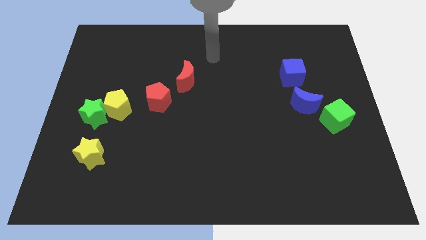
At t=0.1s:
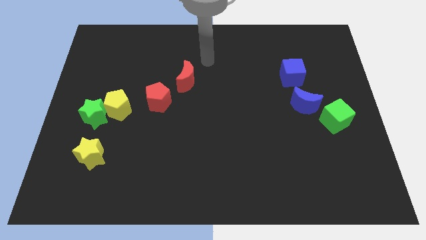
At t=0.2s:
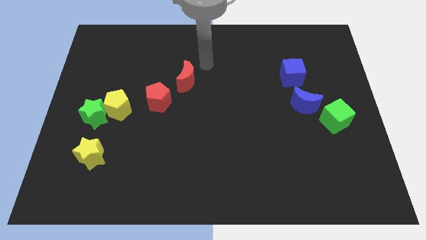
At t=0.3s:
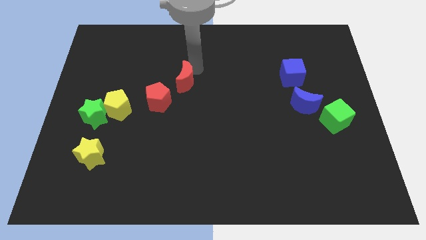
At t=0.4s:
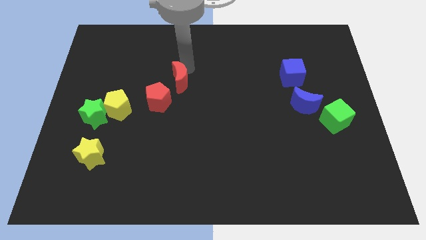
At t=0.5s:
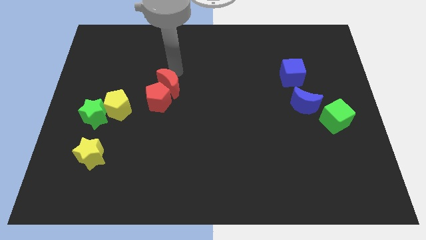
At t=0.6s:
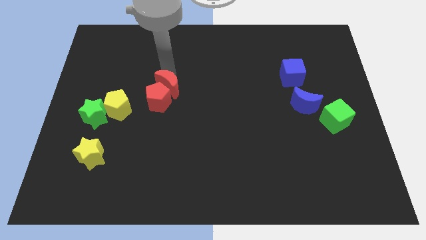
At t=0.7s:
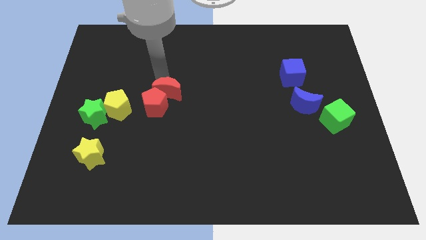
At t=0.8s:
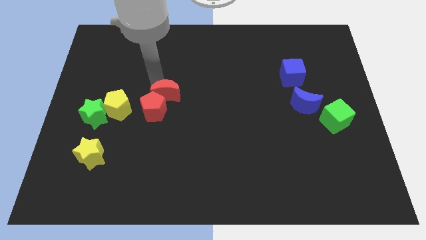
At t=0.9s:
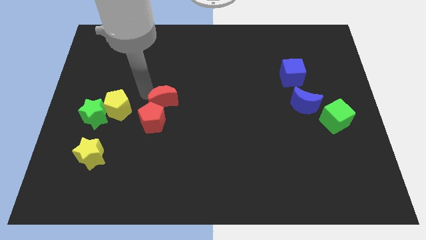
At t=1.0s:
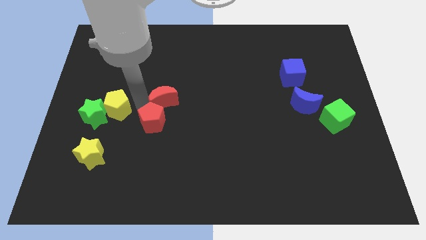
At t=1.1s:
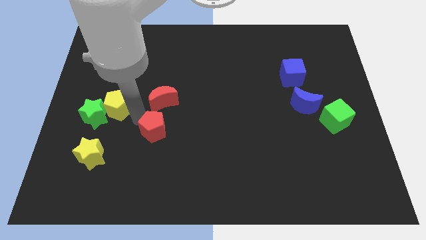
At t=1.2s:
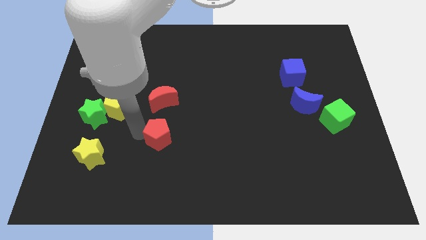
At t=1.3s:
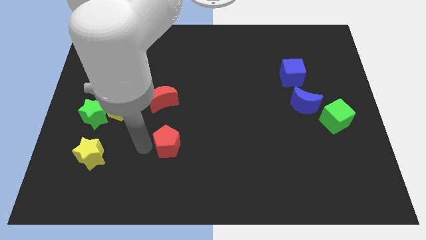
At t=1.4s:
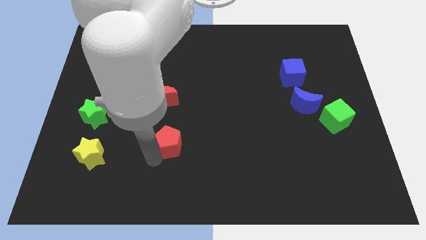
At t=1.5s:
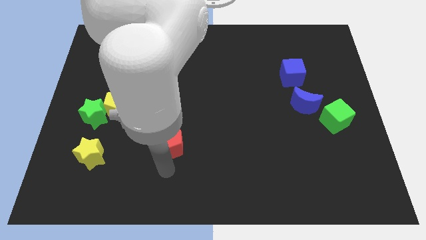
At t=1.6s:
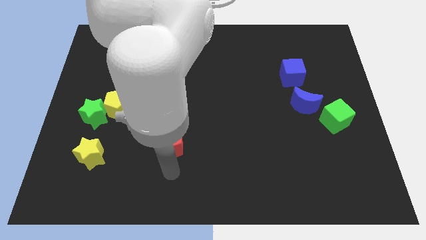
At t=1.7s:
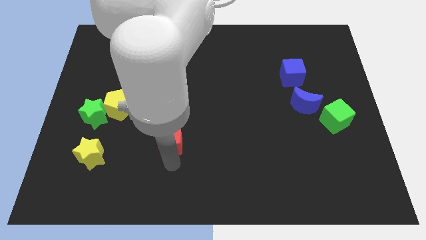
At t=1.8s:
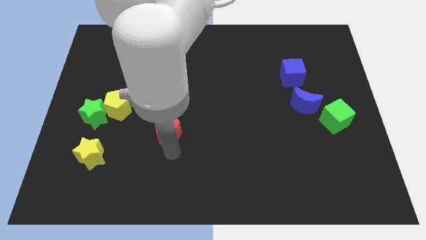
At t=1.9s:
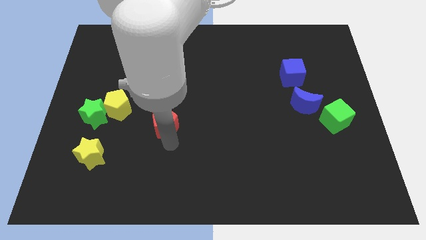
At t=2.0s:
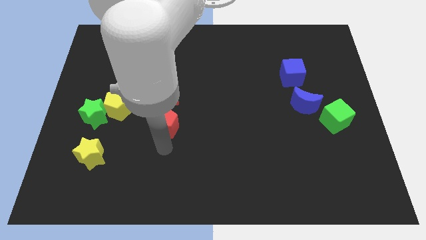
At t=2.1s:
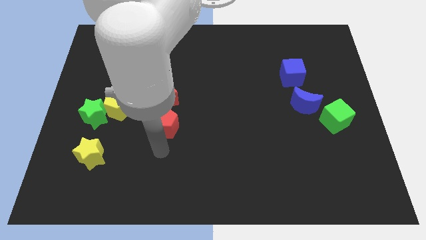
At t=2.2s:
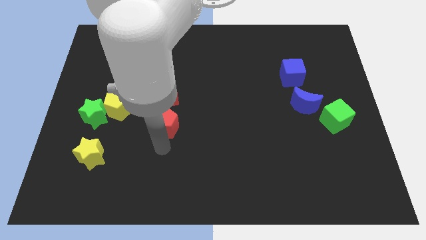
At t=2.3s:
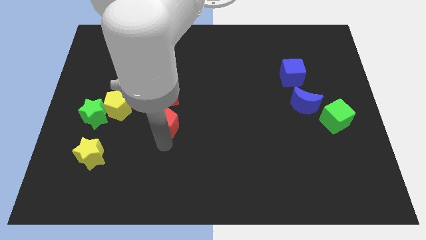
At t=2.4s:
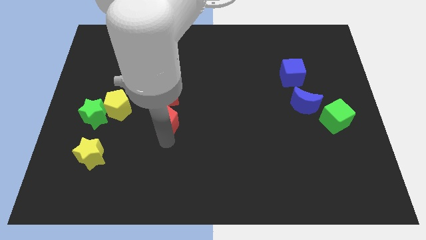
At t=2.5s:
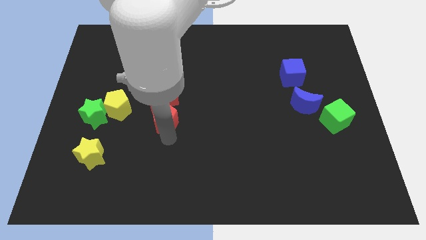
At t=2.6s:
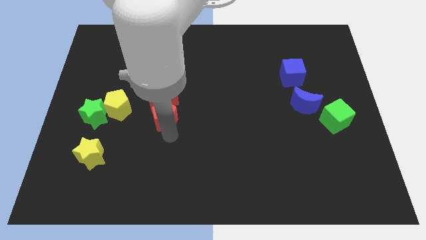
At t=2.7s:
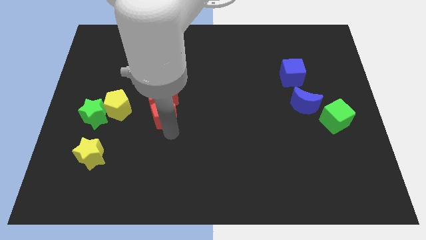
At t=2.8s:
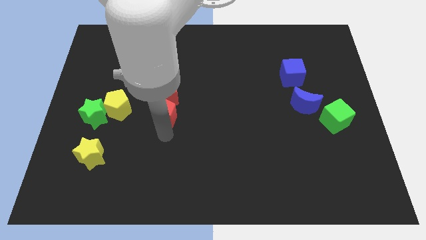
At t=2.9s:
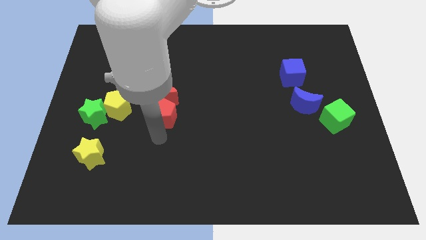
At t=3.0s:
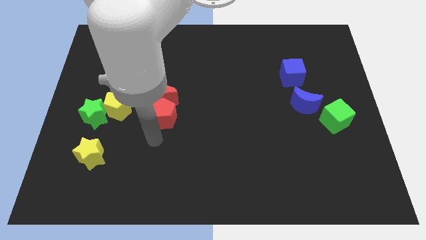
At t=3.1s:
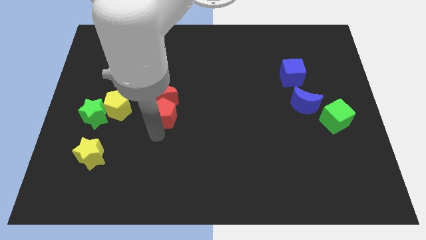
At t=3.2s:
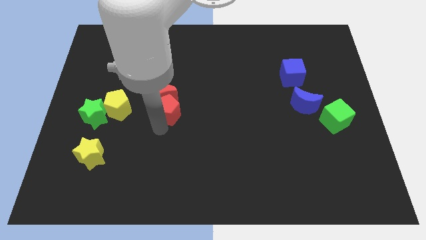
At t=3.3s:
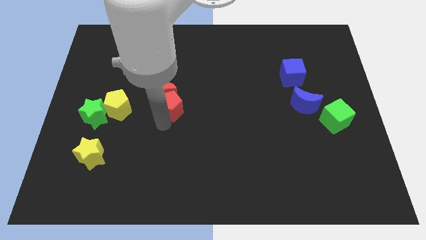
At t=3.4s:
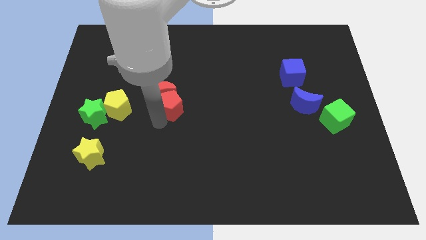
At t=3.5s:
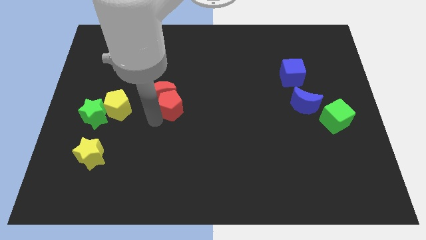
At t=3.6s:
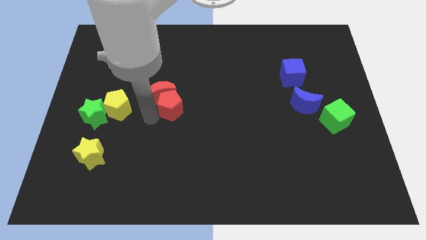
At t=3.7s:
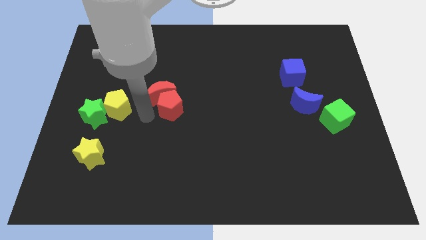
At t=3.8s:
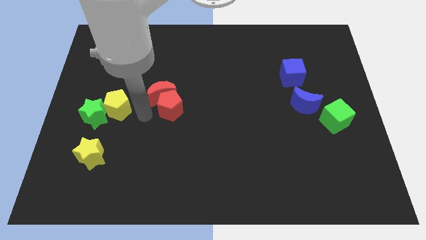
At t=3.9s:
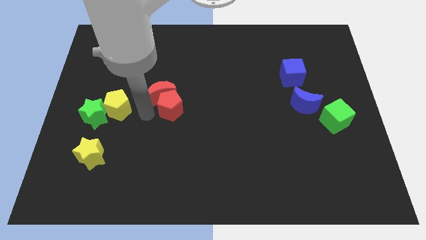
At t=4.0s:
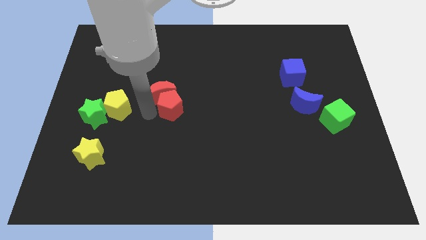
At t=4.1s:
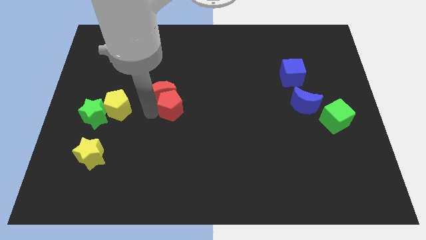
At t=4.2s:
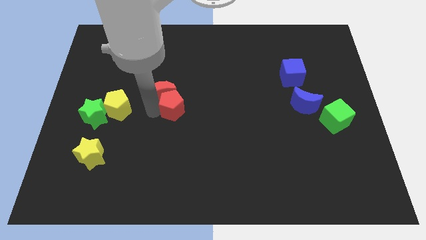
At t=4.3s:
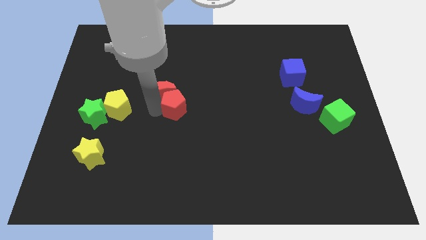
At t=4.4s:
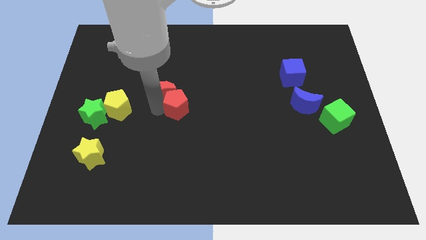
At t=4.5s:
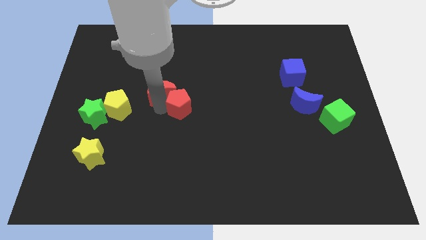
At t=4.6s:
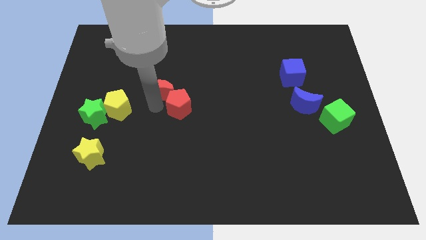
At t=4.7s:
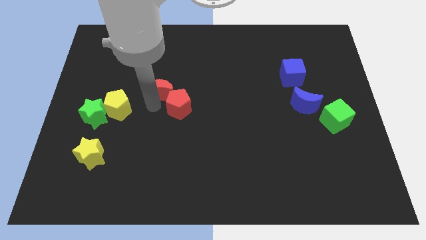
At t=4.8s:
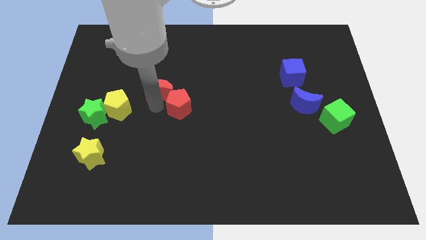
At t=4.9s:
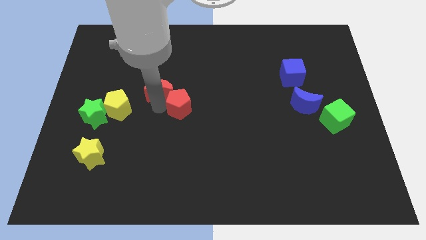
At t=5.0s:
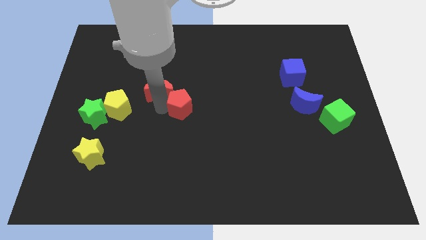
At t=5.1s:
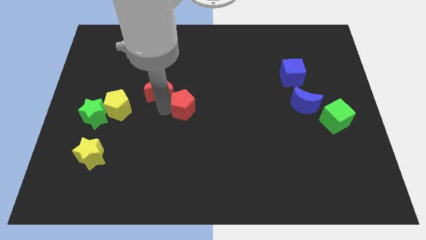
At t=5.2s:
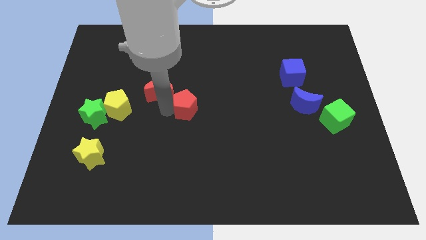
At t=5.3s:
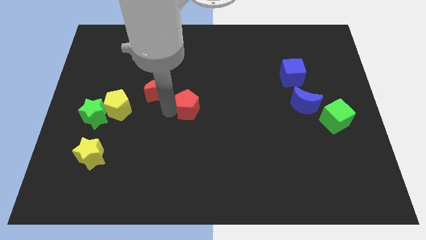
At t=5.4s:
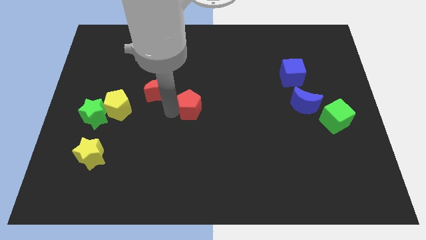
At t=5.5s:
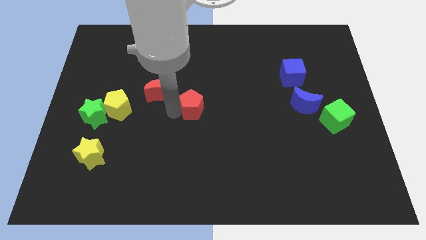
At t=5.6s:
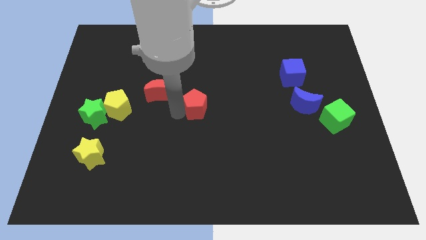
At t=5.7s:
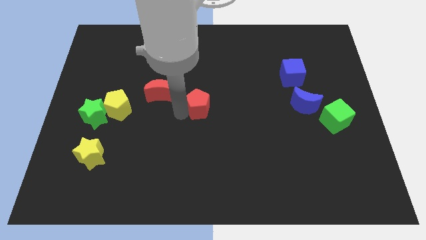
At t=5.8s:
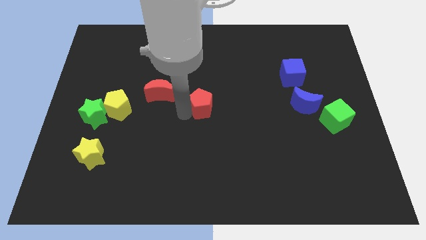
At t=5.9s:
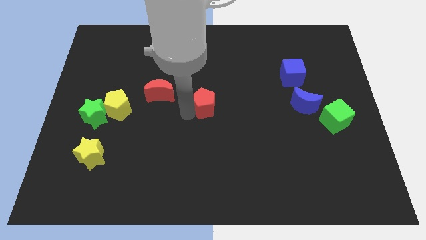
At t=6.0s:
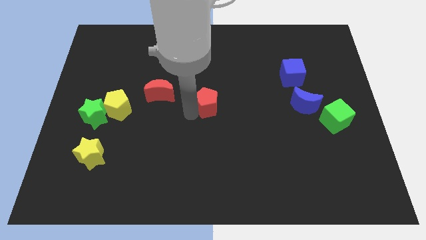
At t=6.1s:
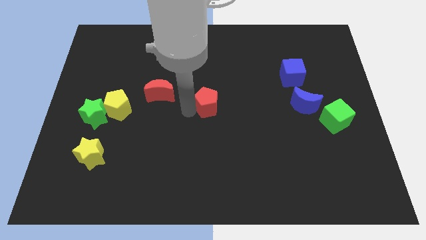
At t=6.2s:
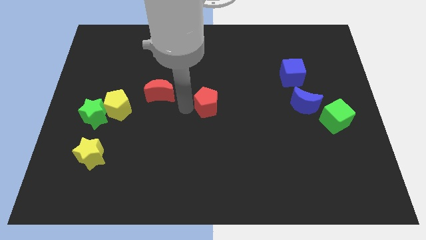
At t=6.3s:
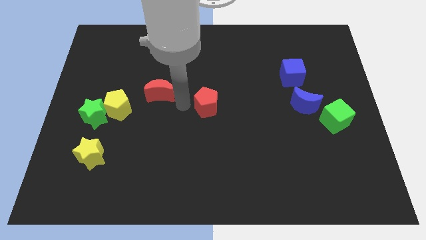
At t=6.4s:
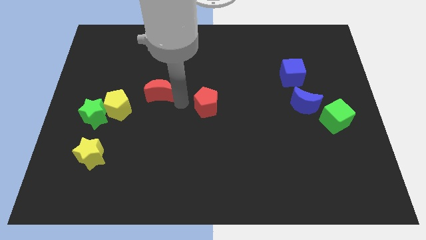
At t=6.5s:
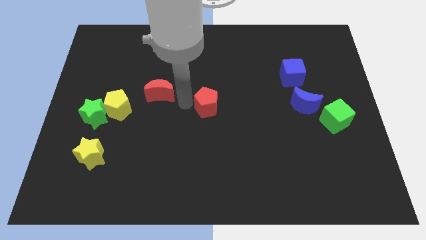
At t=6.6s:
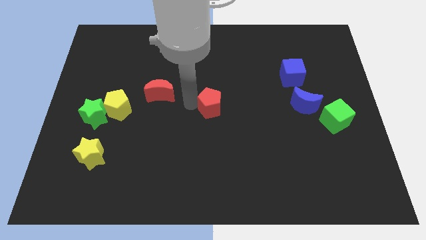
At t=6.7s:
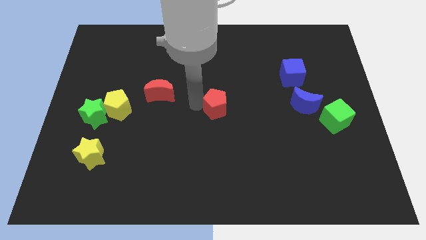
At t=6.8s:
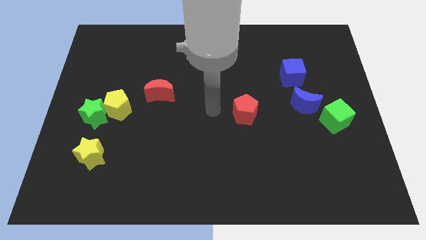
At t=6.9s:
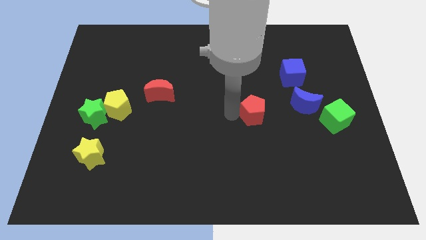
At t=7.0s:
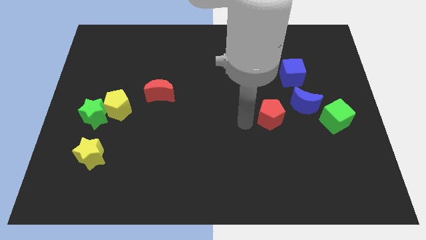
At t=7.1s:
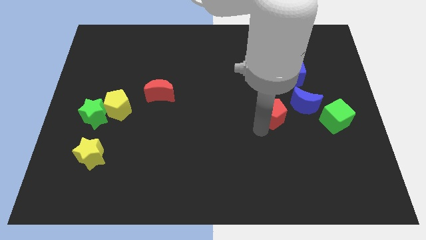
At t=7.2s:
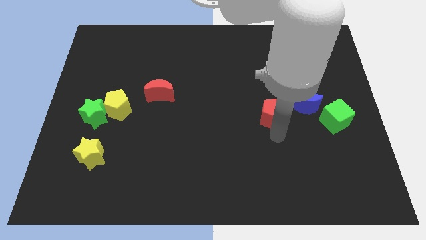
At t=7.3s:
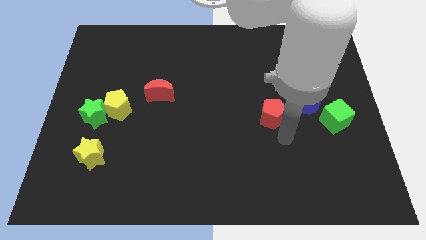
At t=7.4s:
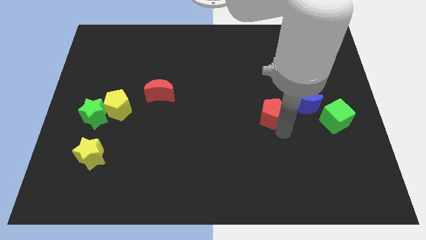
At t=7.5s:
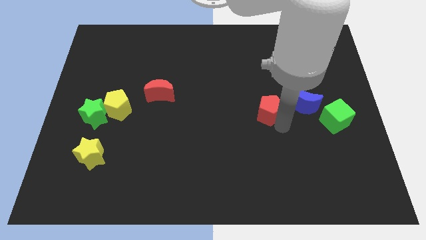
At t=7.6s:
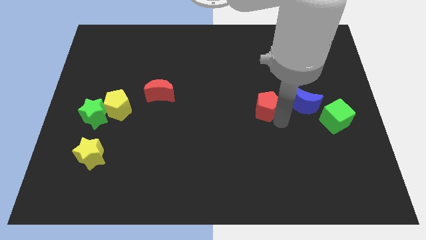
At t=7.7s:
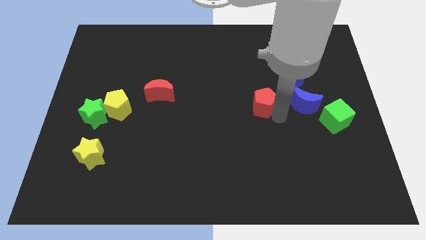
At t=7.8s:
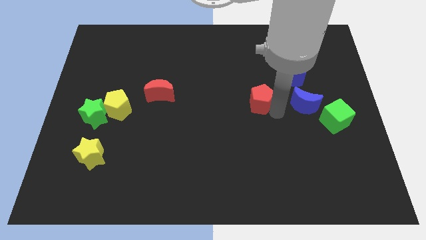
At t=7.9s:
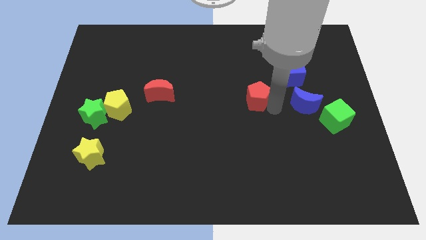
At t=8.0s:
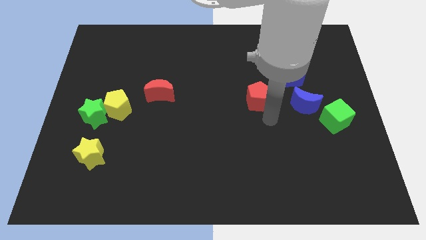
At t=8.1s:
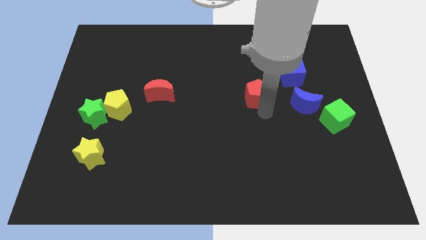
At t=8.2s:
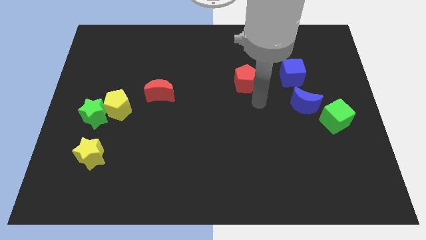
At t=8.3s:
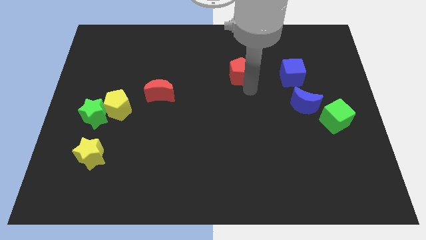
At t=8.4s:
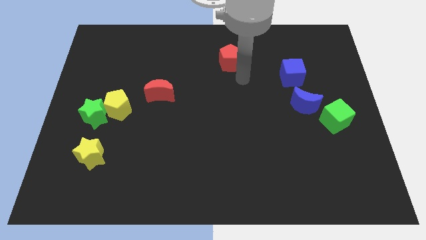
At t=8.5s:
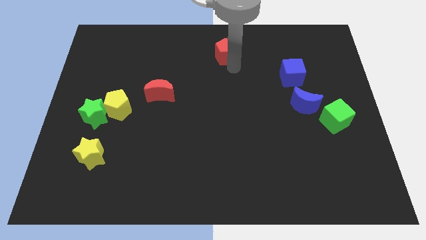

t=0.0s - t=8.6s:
push the red pentagon to the top side
